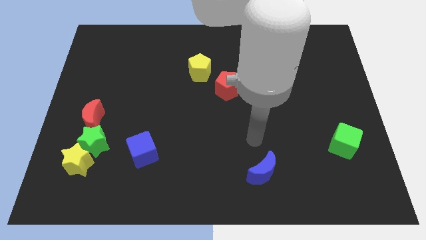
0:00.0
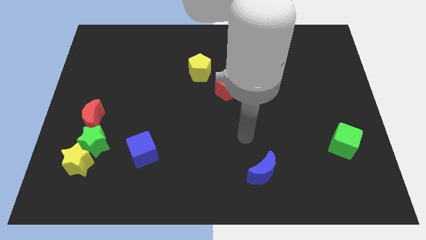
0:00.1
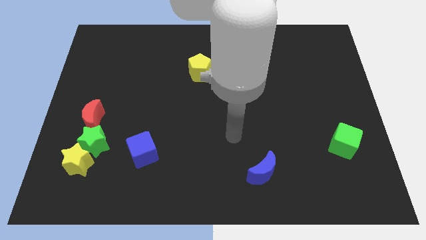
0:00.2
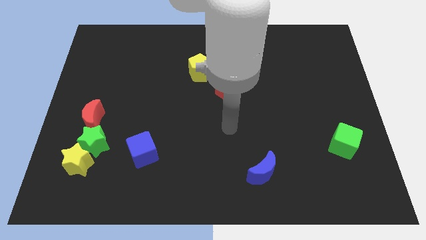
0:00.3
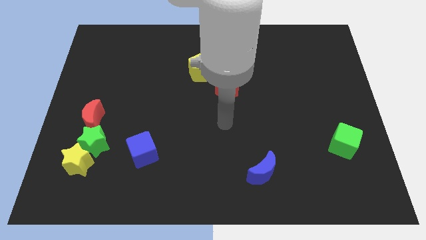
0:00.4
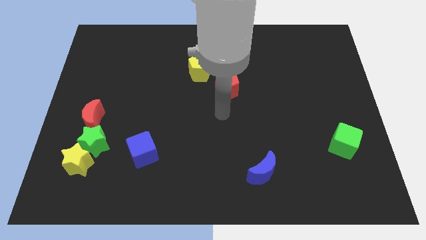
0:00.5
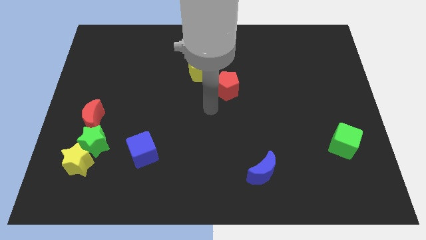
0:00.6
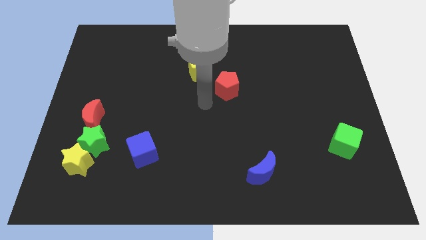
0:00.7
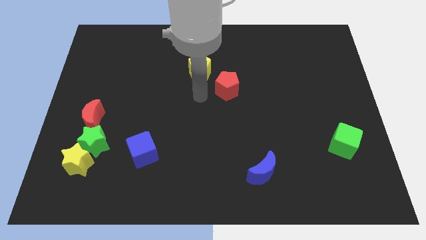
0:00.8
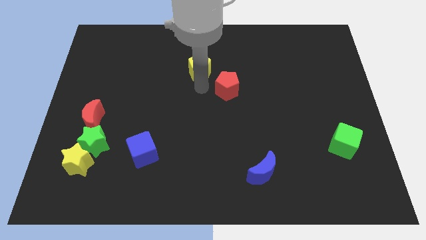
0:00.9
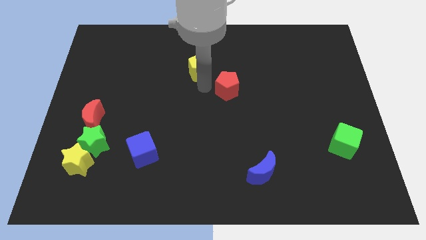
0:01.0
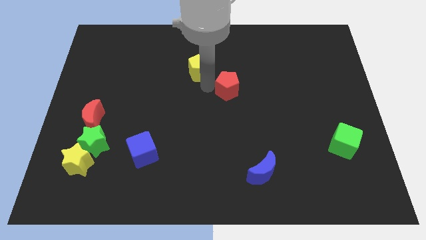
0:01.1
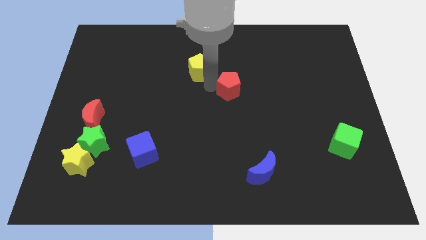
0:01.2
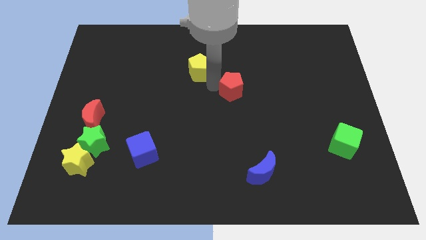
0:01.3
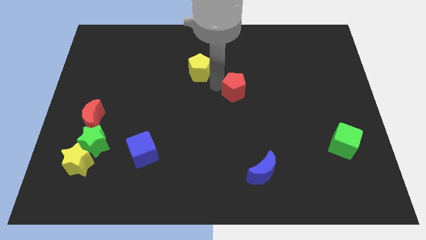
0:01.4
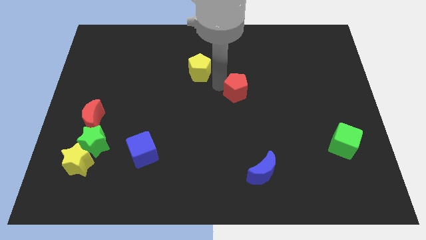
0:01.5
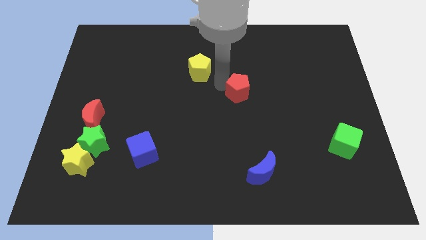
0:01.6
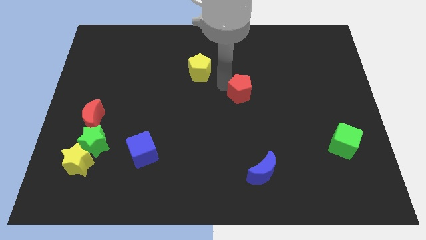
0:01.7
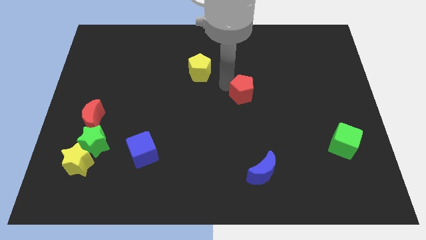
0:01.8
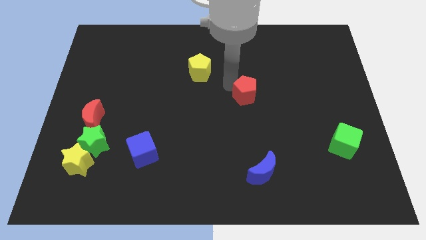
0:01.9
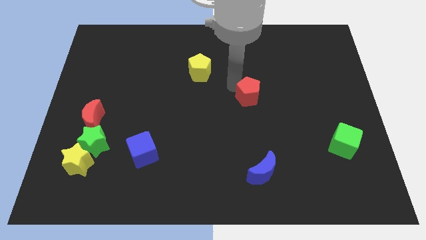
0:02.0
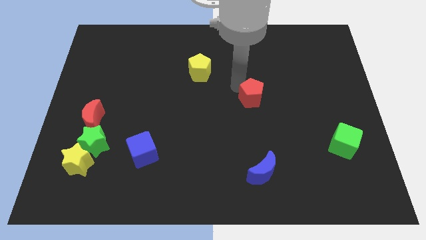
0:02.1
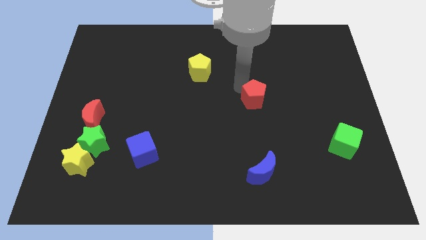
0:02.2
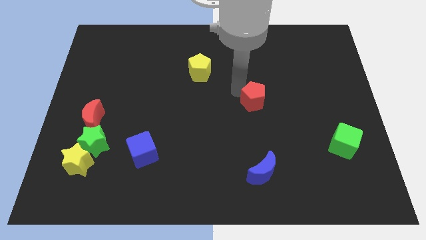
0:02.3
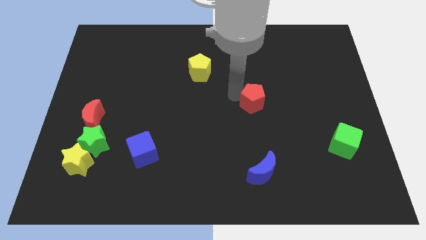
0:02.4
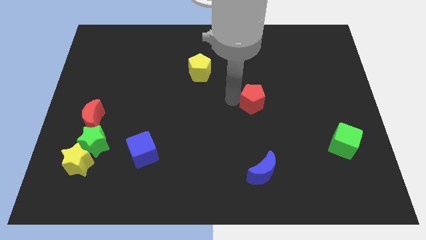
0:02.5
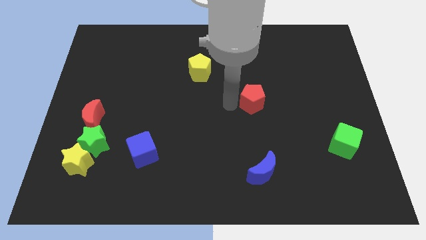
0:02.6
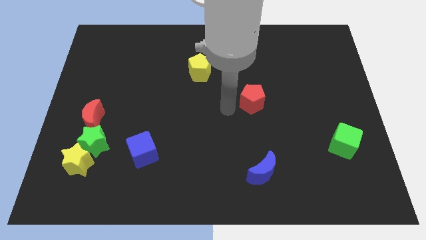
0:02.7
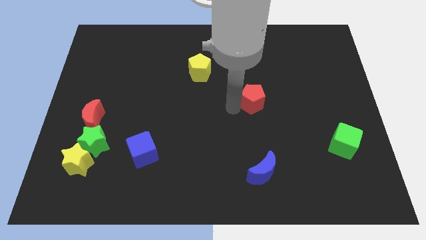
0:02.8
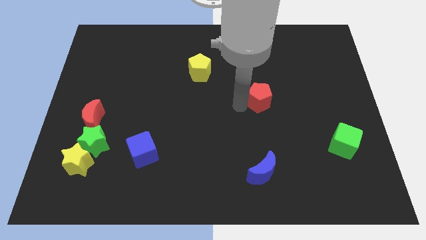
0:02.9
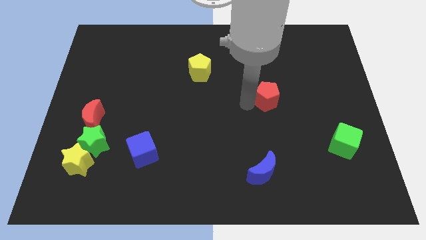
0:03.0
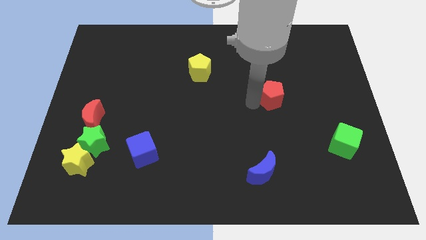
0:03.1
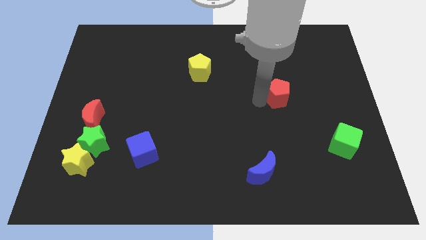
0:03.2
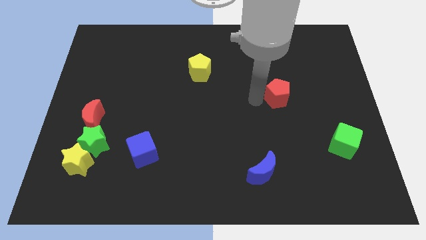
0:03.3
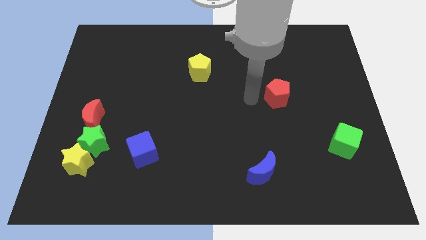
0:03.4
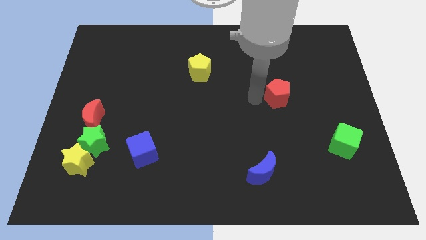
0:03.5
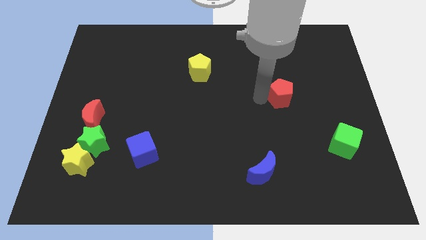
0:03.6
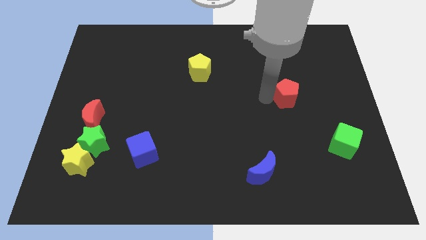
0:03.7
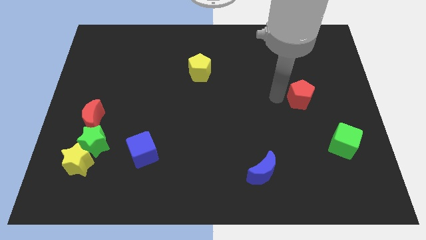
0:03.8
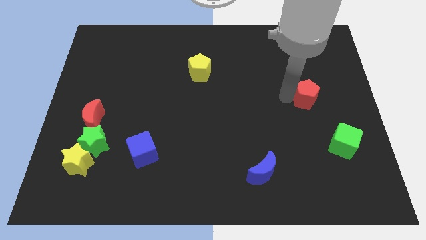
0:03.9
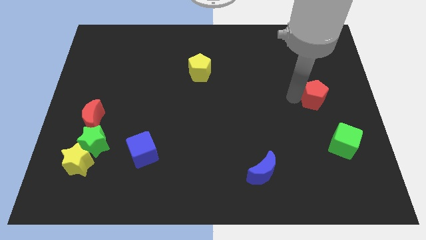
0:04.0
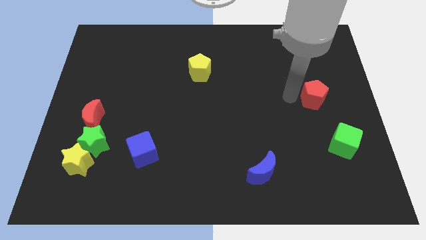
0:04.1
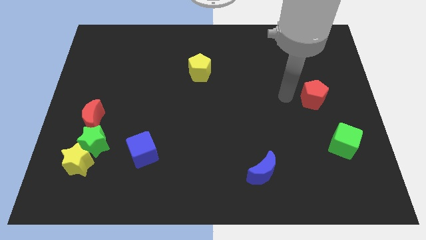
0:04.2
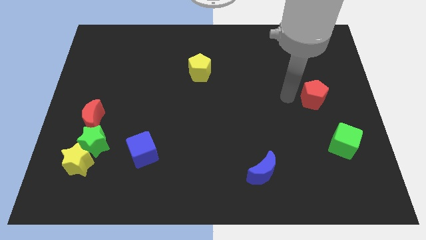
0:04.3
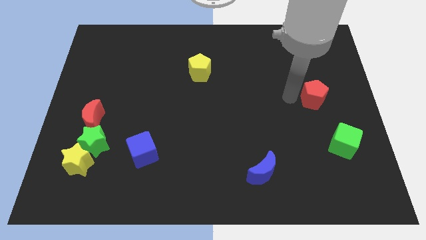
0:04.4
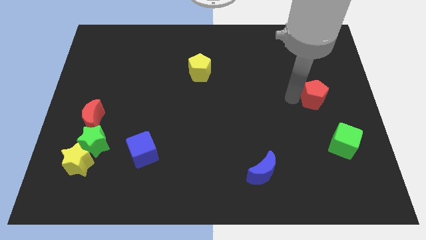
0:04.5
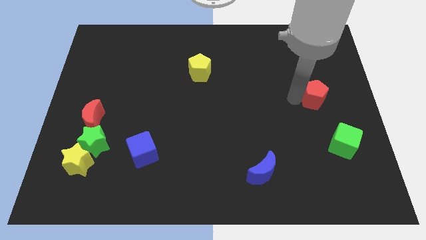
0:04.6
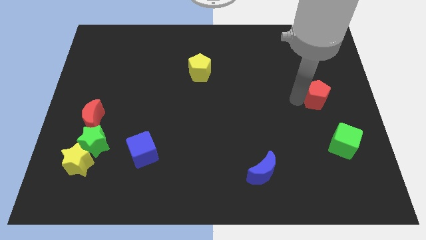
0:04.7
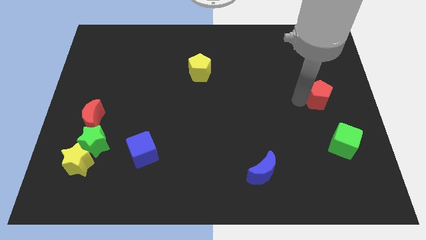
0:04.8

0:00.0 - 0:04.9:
put the red pentagon to the right side of the board

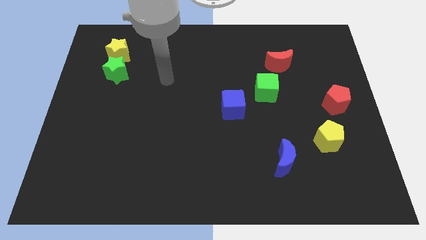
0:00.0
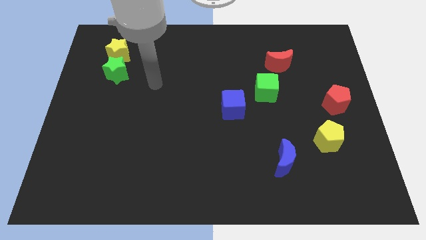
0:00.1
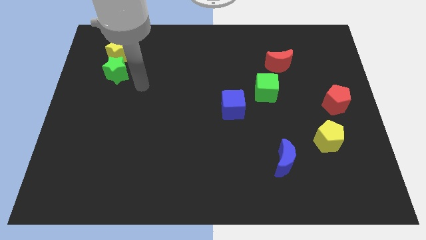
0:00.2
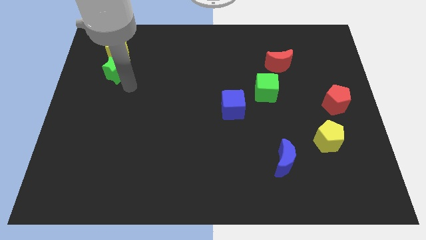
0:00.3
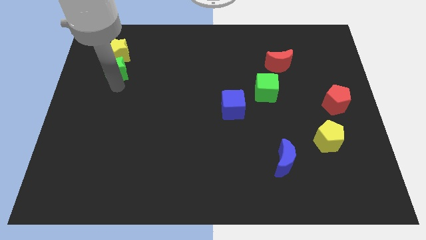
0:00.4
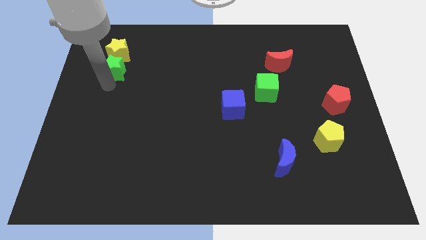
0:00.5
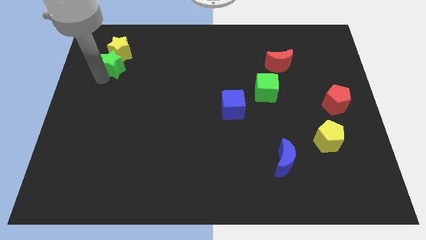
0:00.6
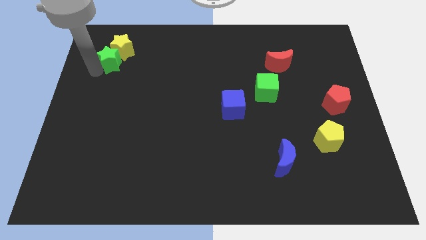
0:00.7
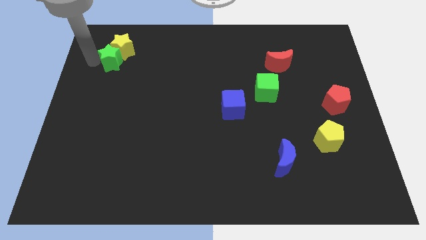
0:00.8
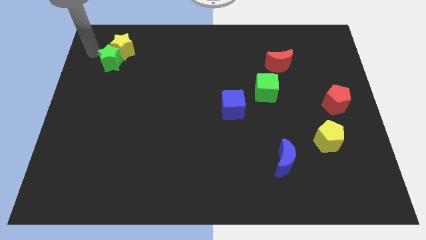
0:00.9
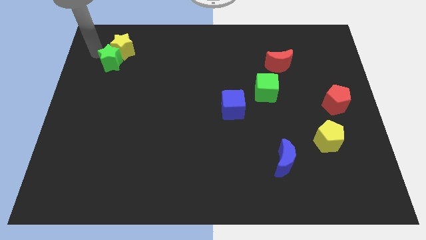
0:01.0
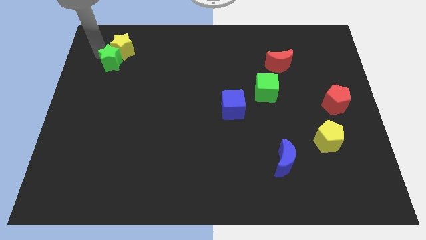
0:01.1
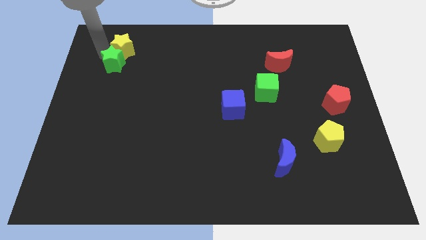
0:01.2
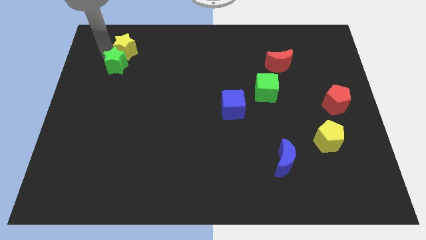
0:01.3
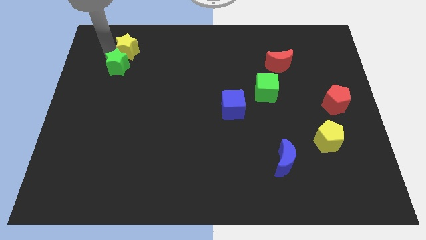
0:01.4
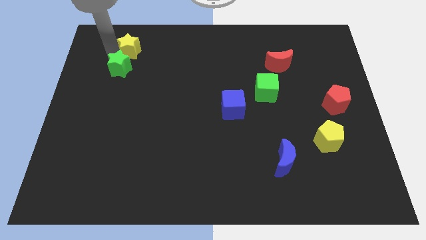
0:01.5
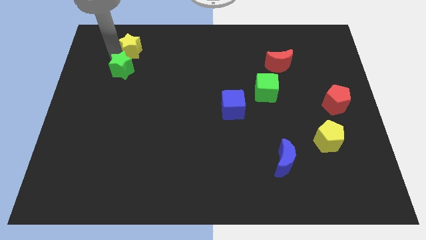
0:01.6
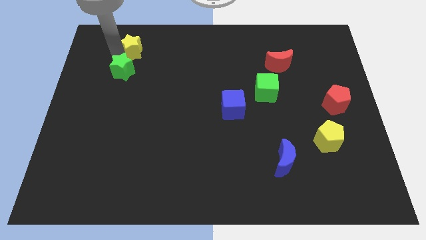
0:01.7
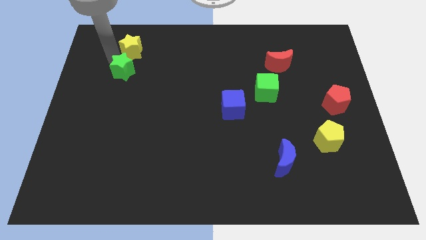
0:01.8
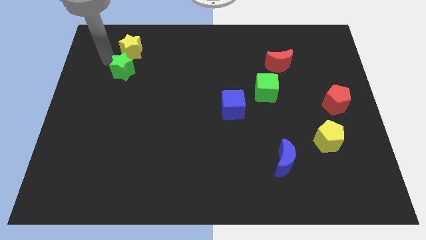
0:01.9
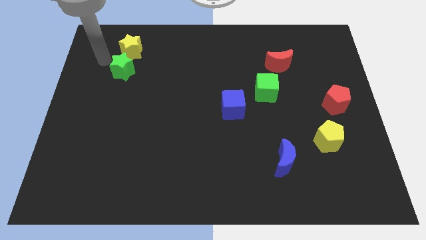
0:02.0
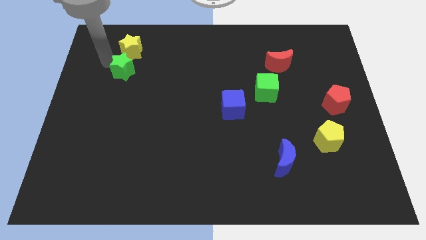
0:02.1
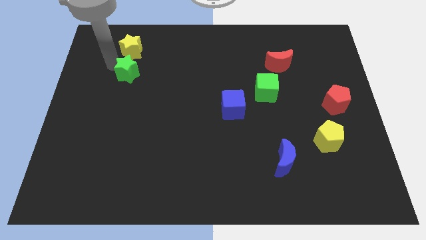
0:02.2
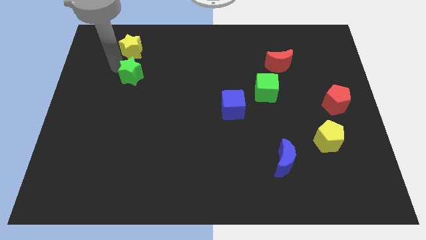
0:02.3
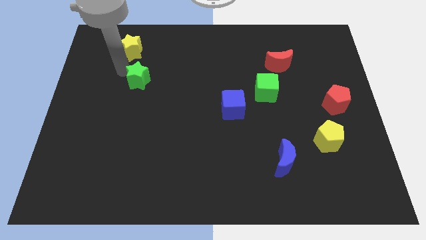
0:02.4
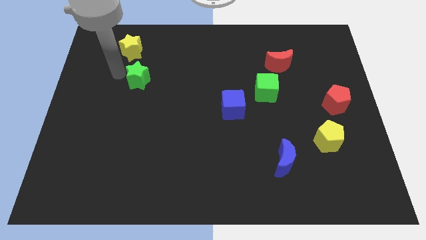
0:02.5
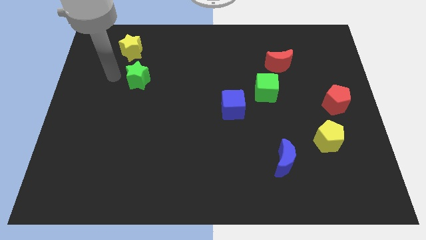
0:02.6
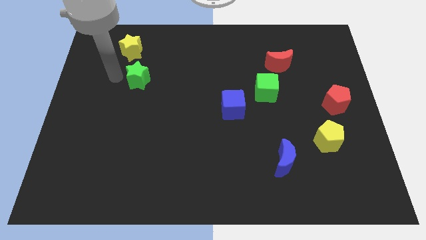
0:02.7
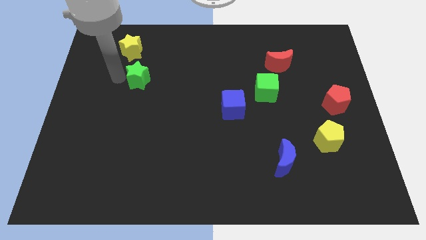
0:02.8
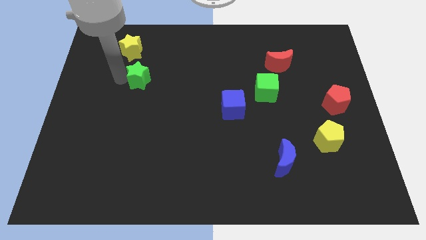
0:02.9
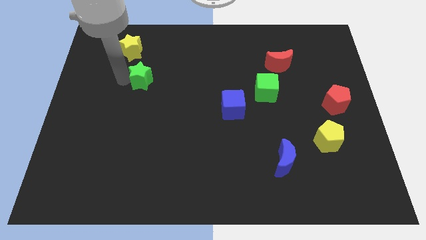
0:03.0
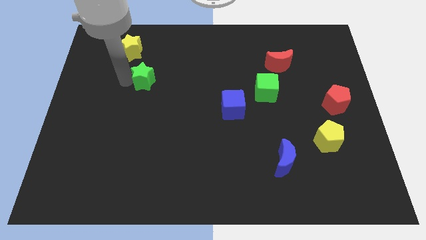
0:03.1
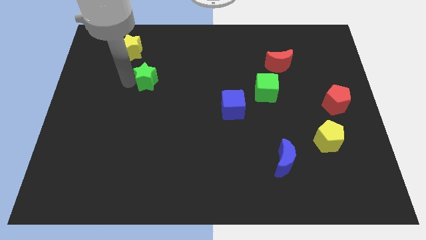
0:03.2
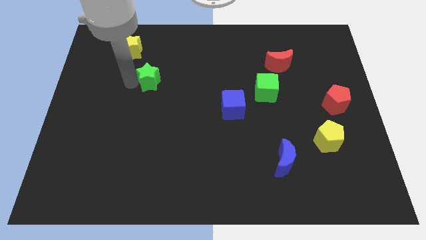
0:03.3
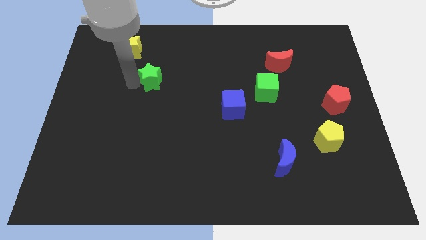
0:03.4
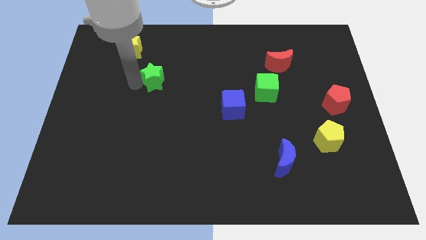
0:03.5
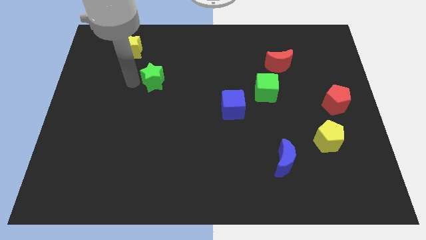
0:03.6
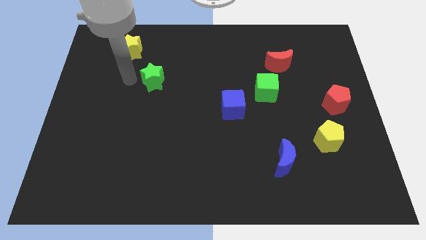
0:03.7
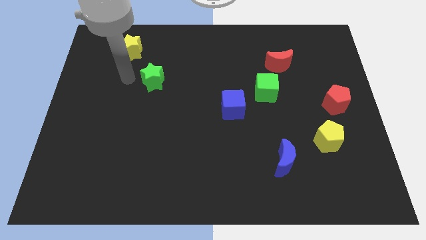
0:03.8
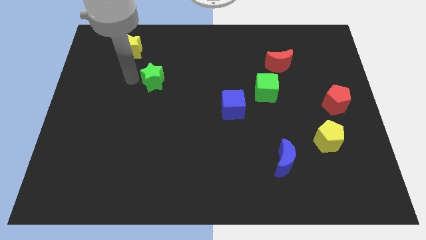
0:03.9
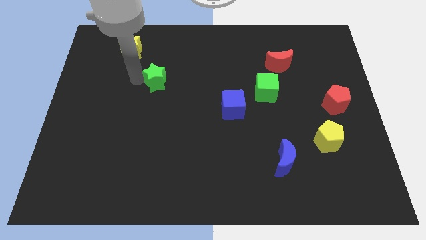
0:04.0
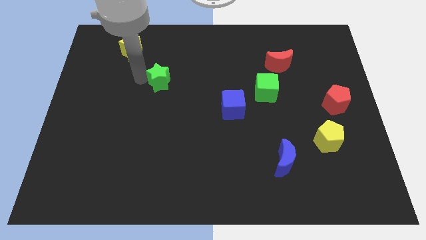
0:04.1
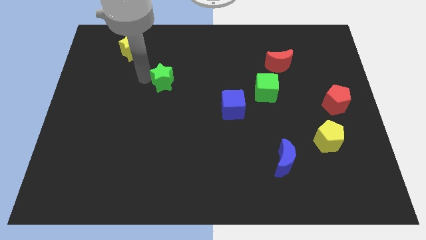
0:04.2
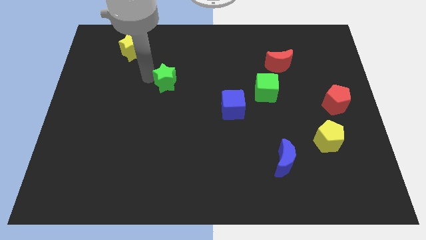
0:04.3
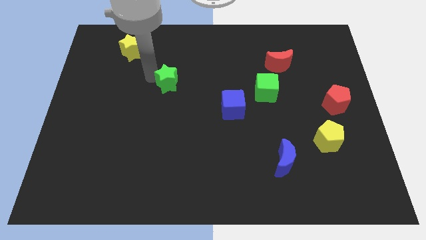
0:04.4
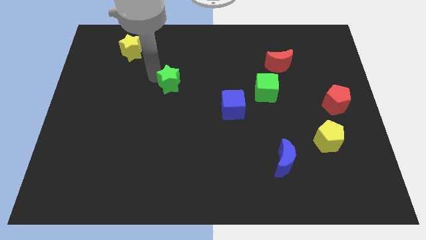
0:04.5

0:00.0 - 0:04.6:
push the green star to the center
